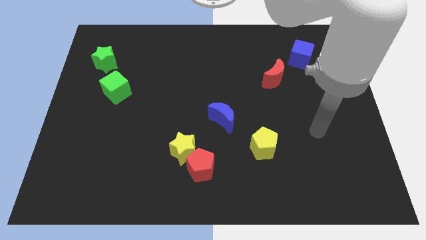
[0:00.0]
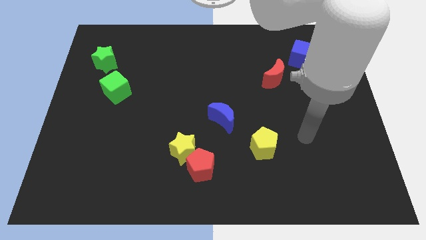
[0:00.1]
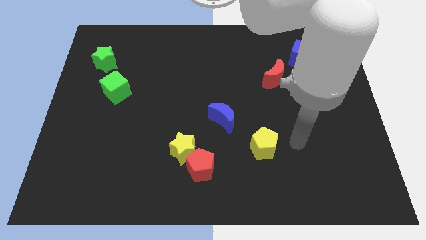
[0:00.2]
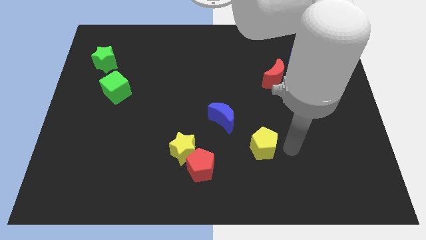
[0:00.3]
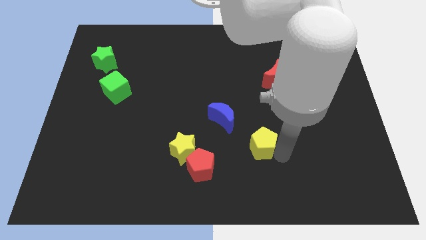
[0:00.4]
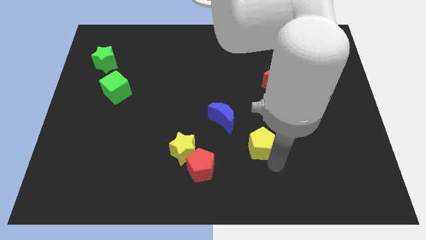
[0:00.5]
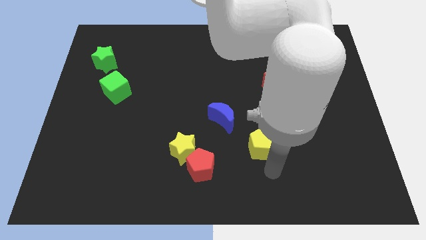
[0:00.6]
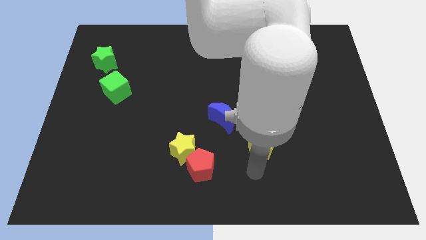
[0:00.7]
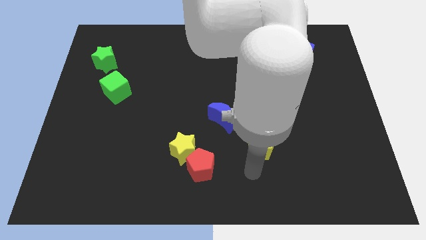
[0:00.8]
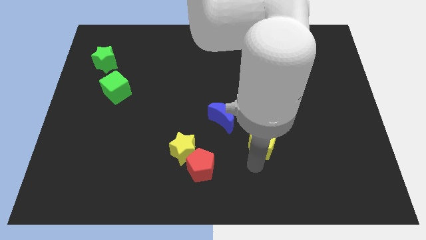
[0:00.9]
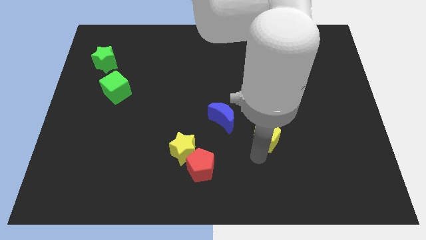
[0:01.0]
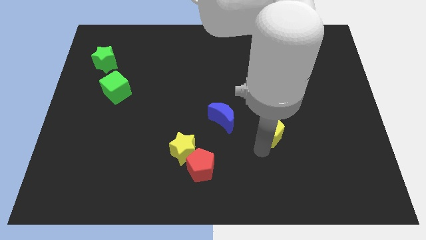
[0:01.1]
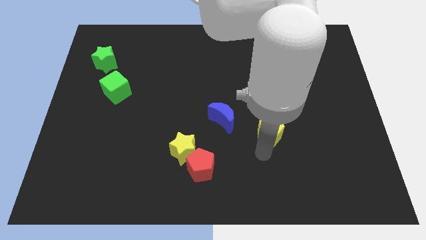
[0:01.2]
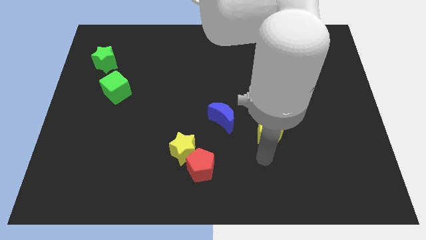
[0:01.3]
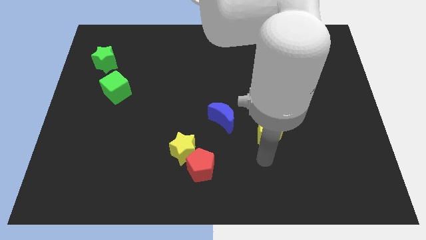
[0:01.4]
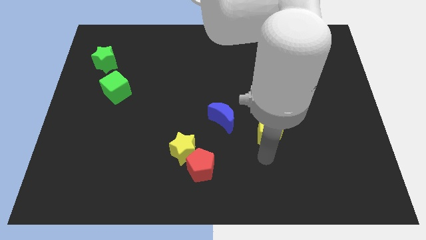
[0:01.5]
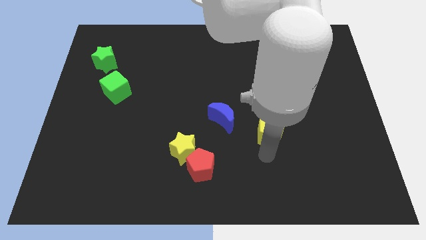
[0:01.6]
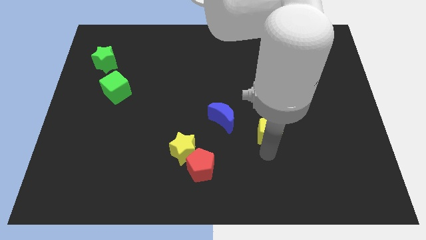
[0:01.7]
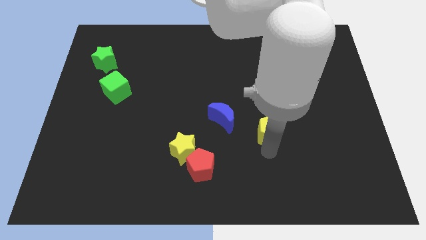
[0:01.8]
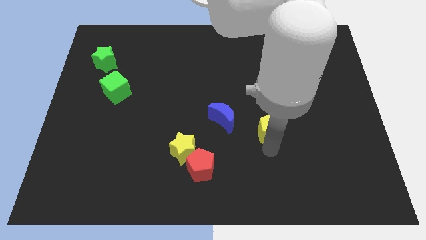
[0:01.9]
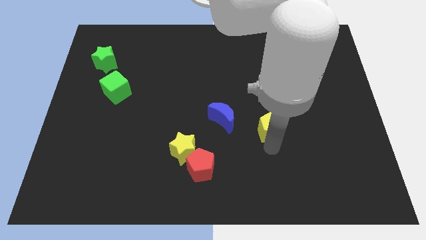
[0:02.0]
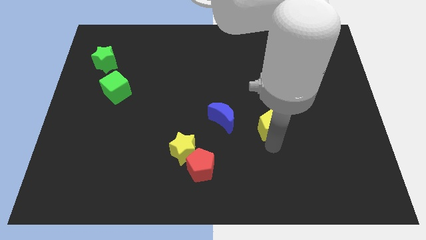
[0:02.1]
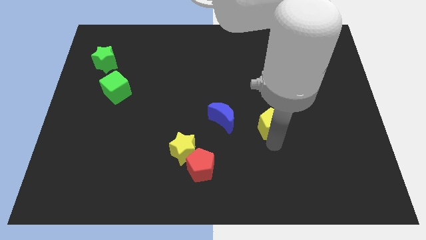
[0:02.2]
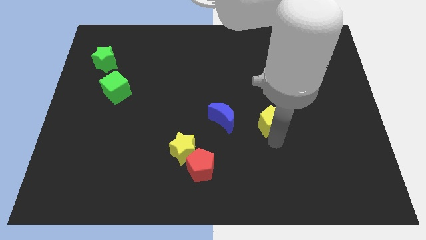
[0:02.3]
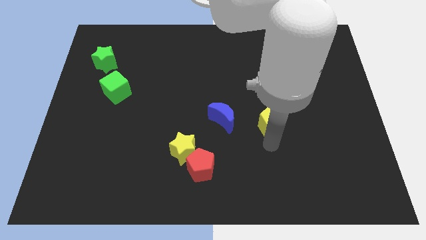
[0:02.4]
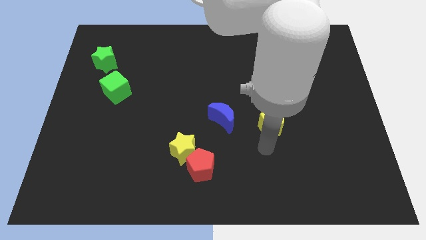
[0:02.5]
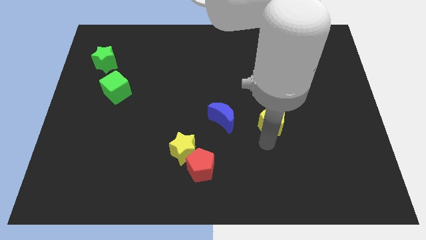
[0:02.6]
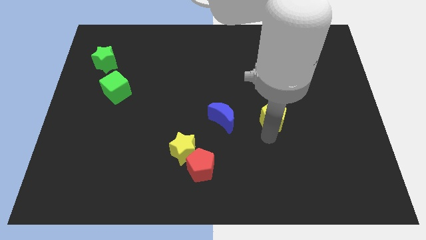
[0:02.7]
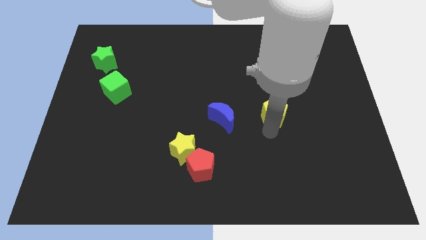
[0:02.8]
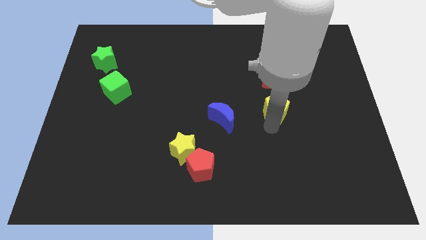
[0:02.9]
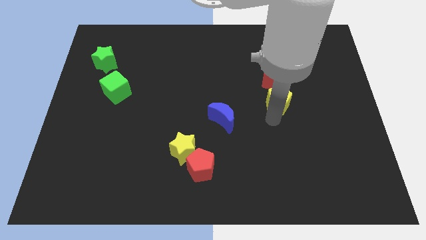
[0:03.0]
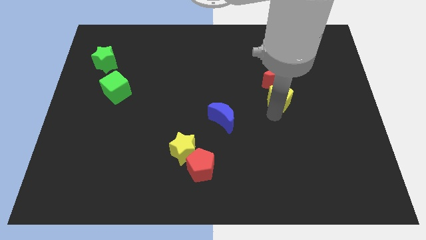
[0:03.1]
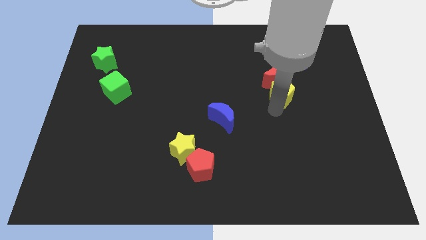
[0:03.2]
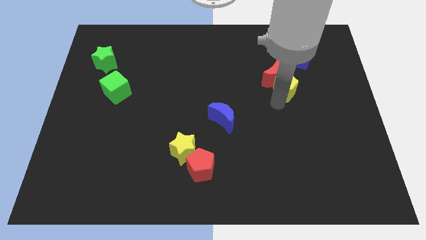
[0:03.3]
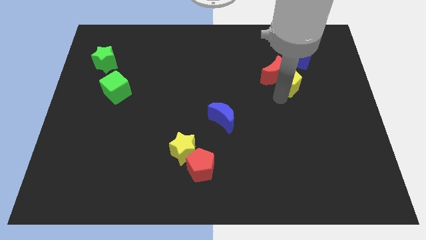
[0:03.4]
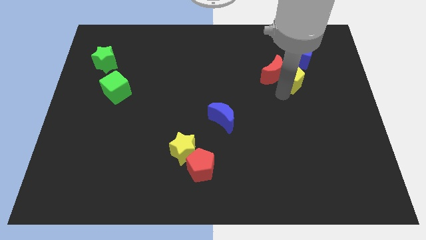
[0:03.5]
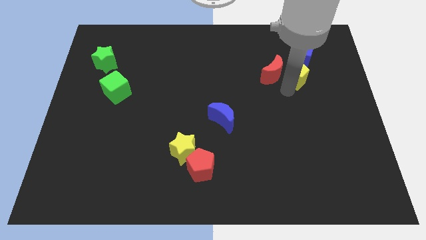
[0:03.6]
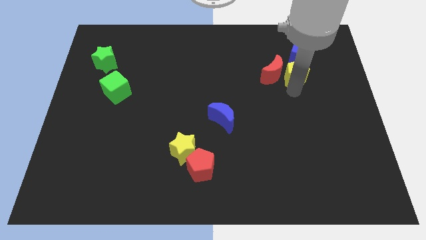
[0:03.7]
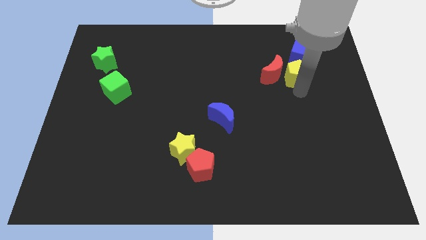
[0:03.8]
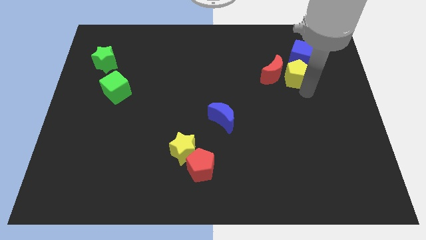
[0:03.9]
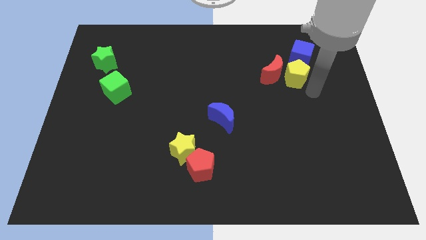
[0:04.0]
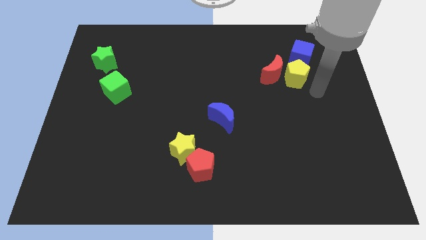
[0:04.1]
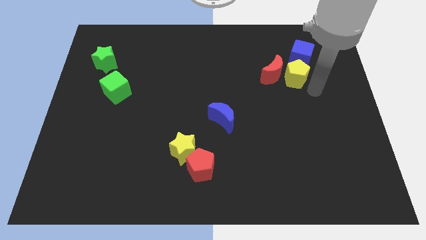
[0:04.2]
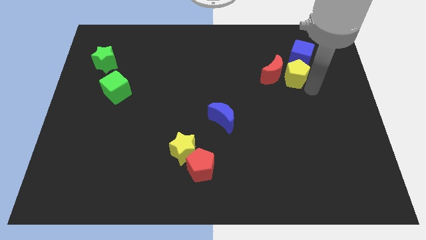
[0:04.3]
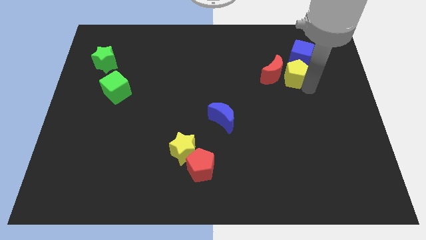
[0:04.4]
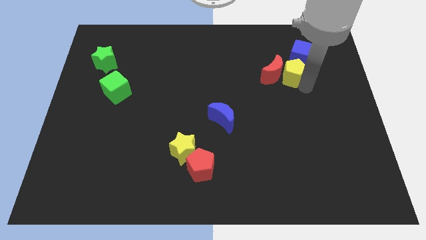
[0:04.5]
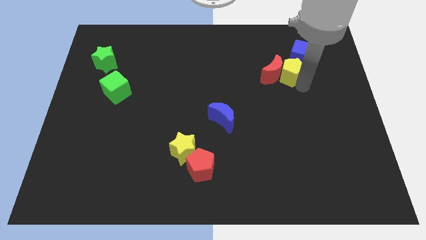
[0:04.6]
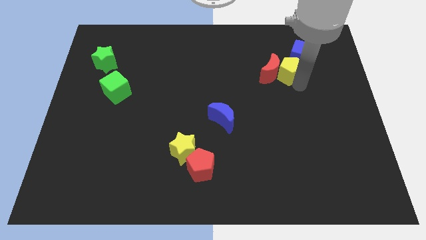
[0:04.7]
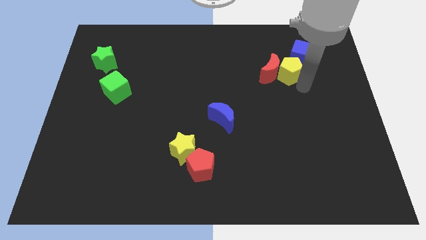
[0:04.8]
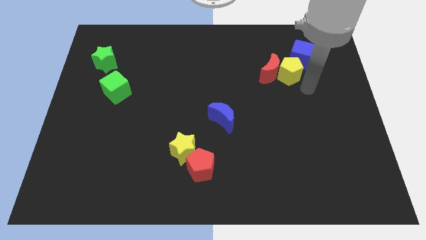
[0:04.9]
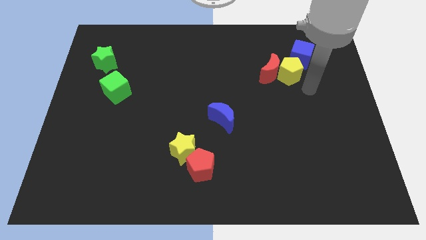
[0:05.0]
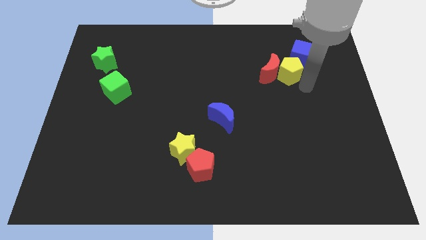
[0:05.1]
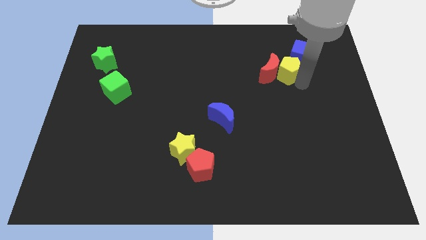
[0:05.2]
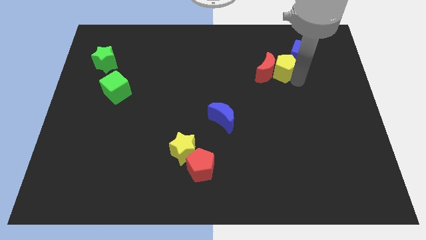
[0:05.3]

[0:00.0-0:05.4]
slide the yellow pentagon just left of the blue cube

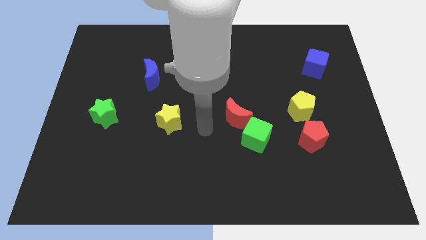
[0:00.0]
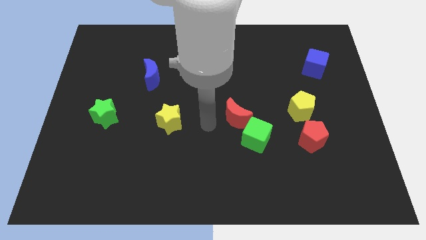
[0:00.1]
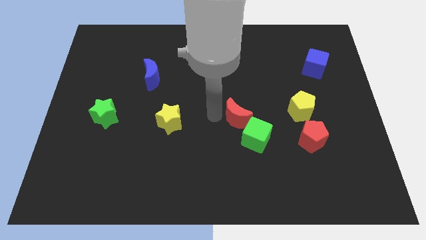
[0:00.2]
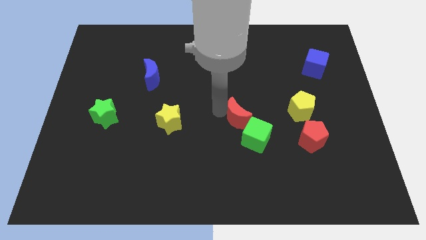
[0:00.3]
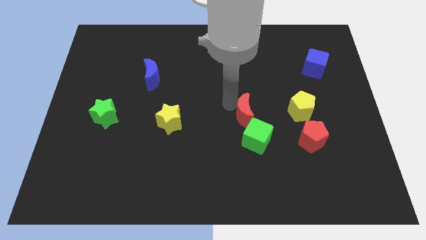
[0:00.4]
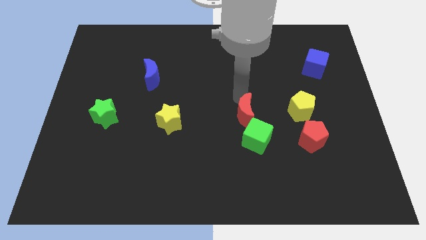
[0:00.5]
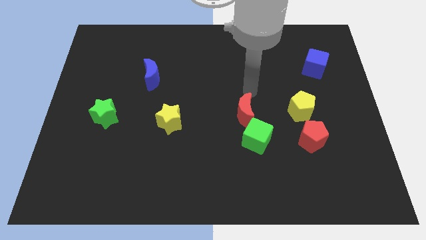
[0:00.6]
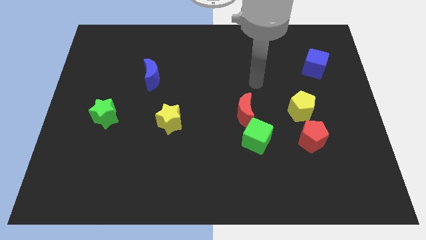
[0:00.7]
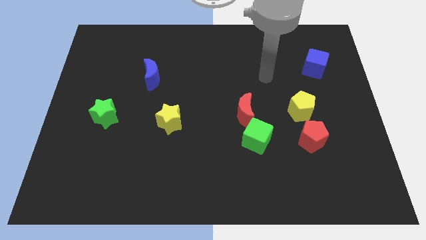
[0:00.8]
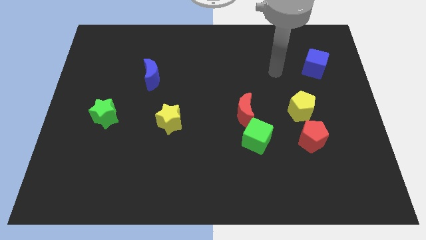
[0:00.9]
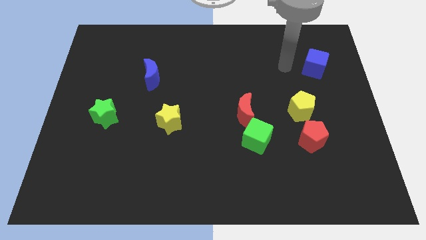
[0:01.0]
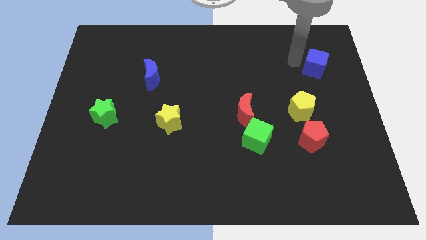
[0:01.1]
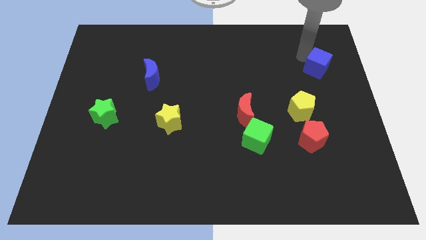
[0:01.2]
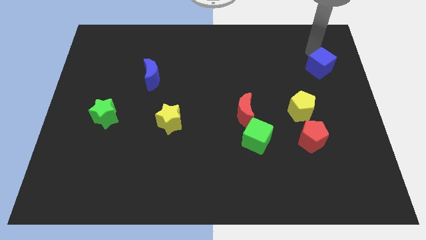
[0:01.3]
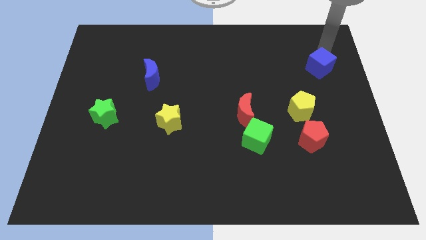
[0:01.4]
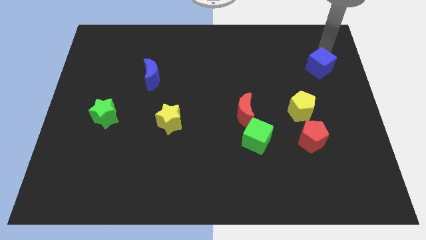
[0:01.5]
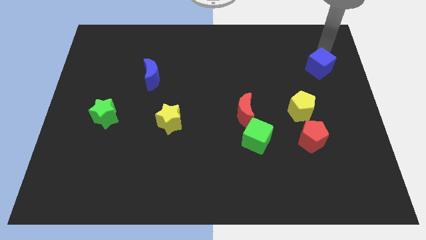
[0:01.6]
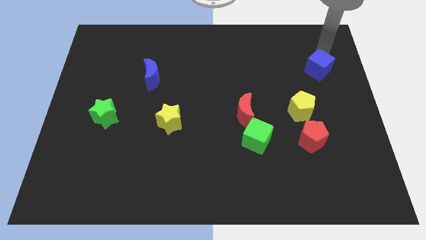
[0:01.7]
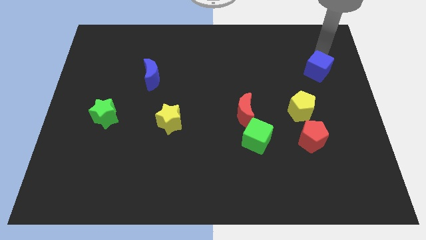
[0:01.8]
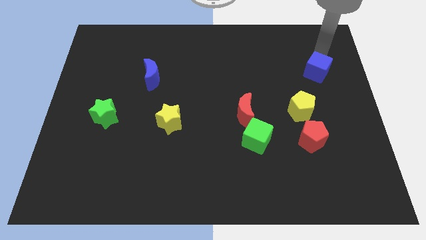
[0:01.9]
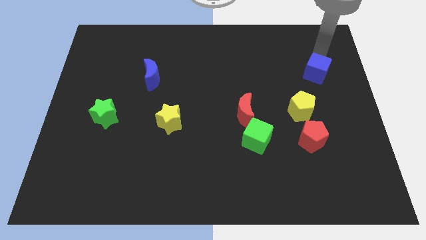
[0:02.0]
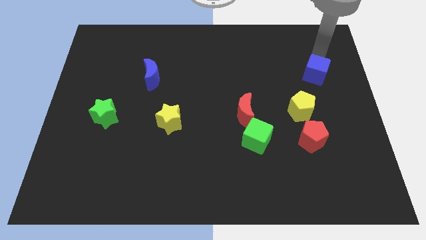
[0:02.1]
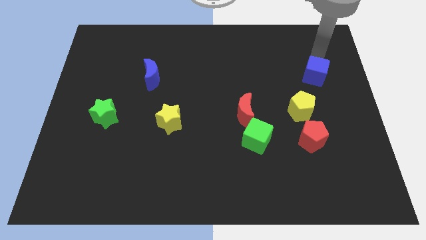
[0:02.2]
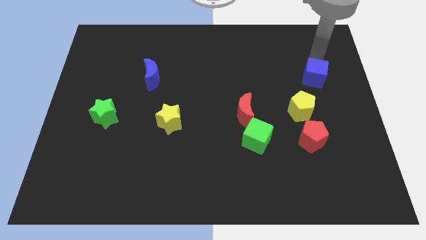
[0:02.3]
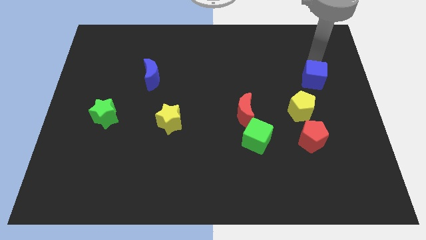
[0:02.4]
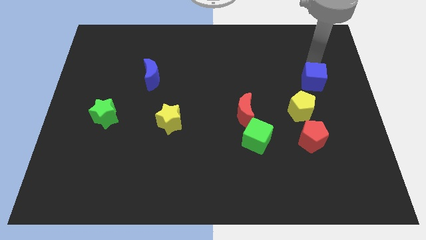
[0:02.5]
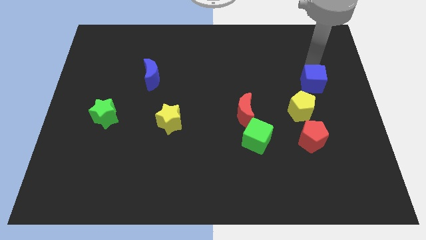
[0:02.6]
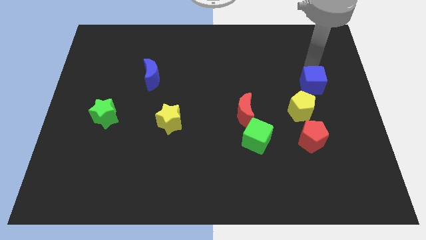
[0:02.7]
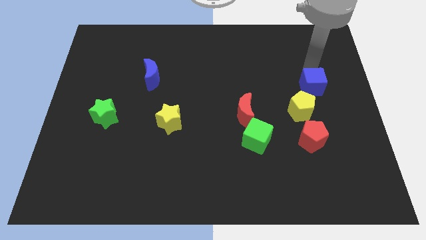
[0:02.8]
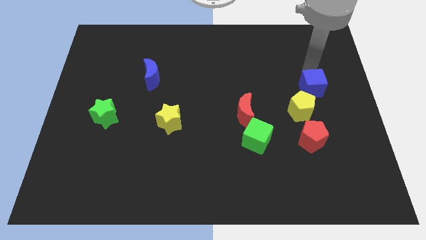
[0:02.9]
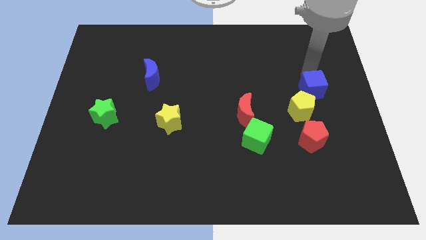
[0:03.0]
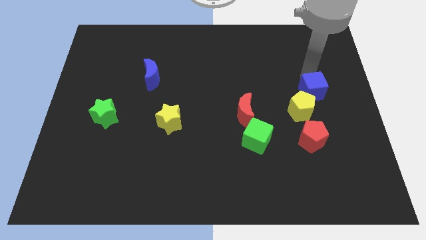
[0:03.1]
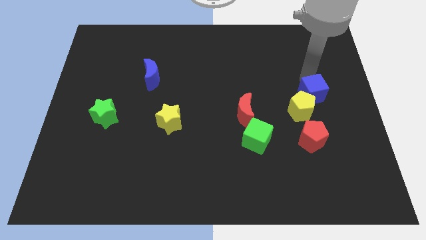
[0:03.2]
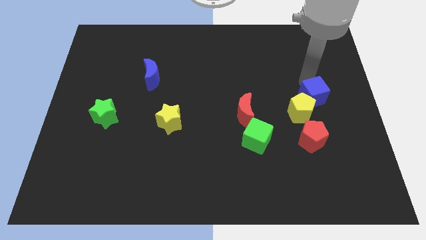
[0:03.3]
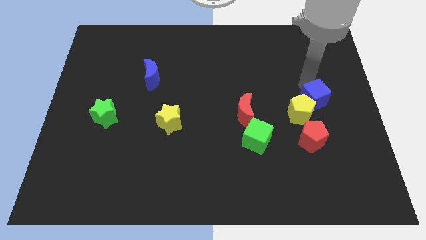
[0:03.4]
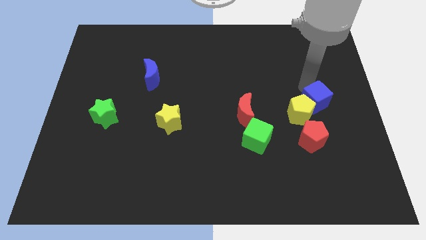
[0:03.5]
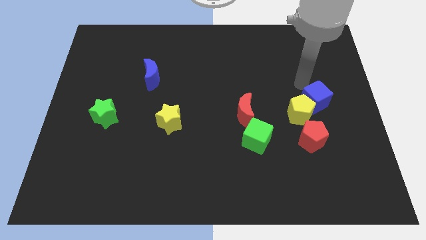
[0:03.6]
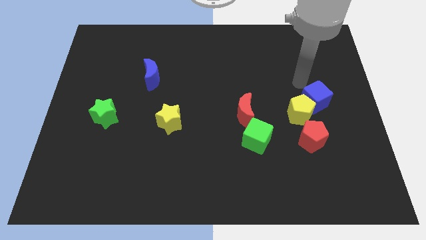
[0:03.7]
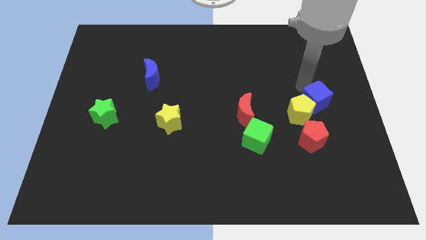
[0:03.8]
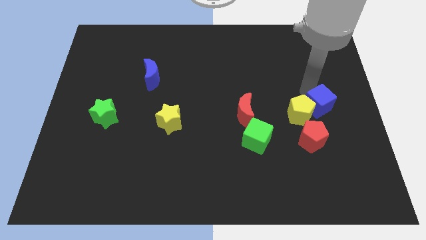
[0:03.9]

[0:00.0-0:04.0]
push the blue cube diagonally up and to the right of the red pentagon
